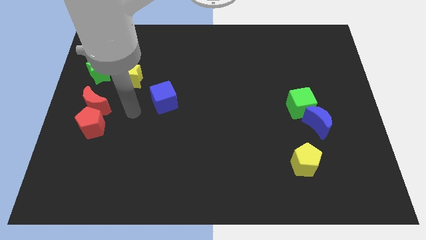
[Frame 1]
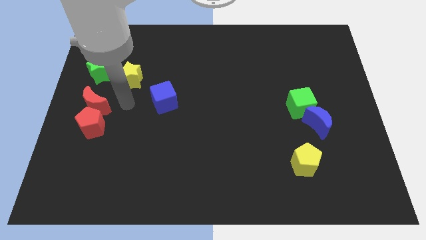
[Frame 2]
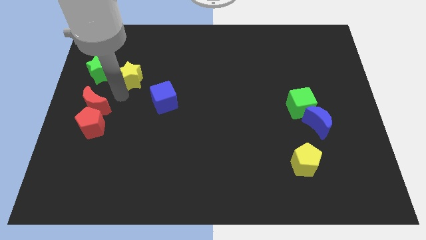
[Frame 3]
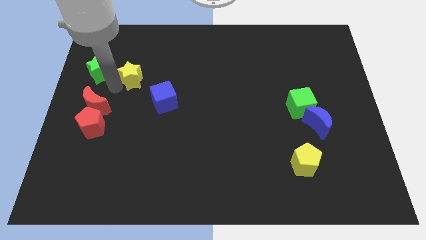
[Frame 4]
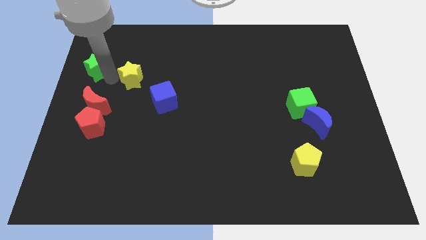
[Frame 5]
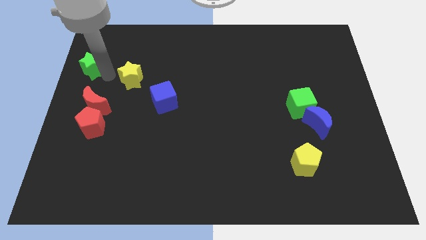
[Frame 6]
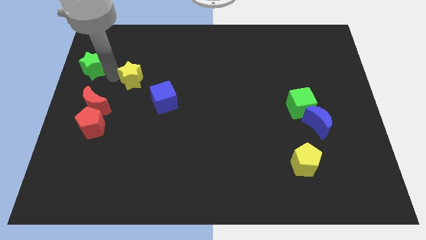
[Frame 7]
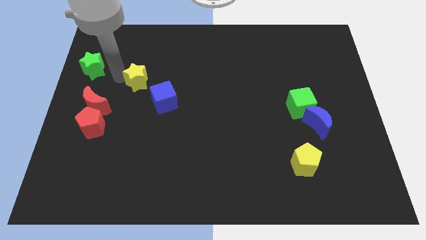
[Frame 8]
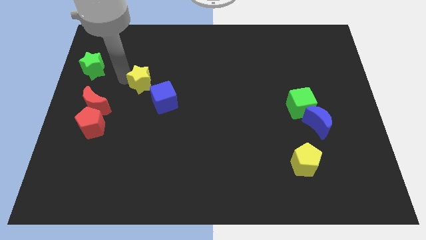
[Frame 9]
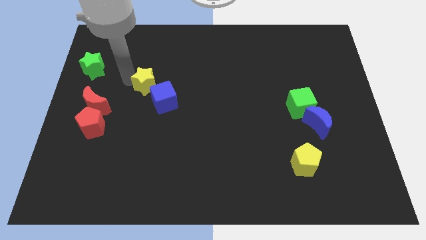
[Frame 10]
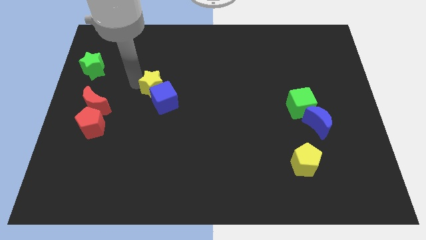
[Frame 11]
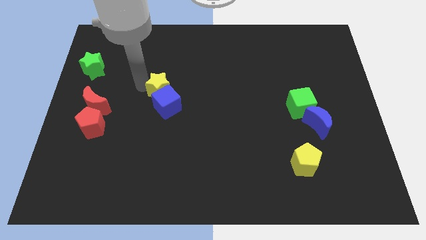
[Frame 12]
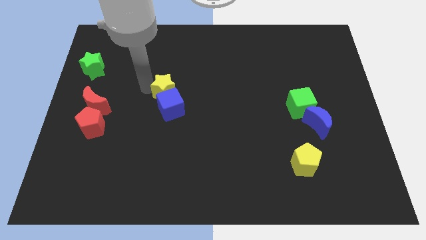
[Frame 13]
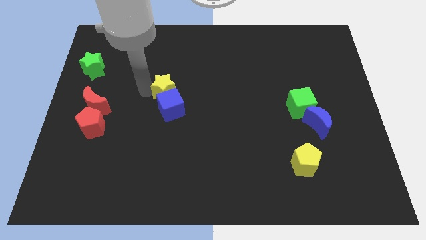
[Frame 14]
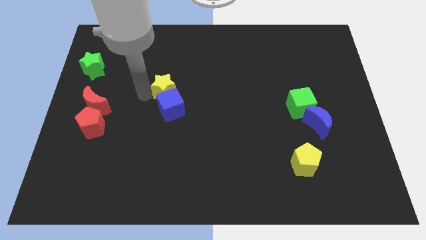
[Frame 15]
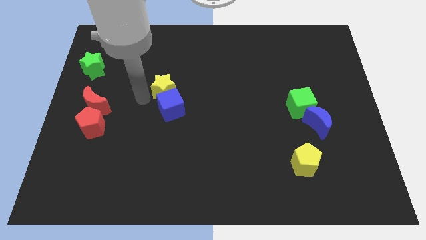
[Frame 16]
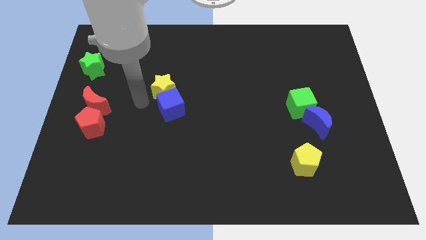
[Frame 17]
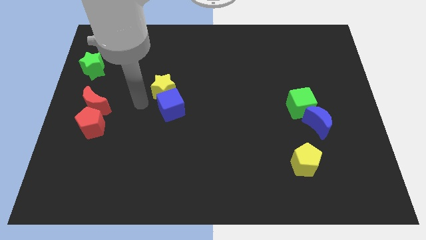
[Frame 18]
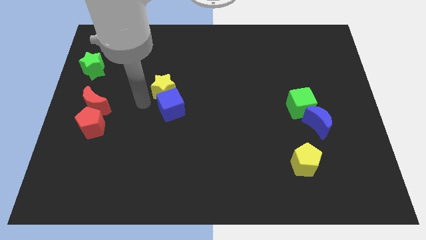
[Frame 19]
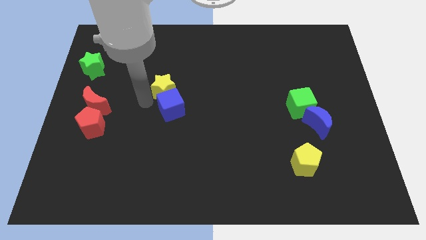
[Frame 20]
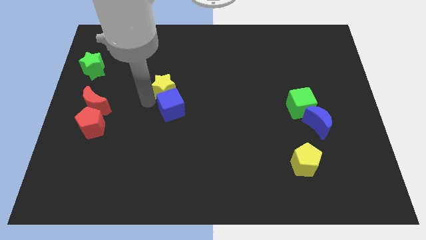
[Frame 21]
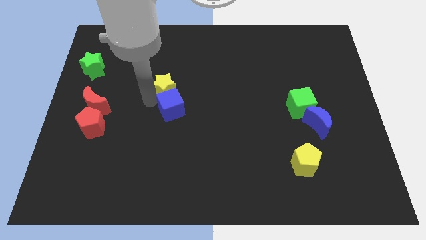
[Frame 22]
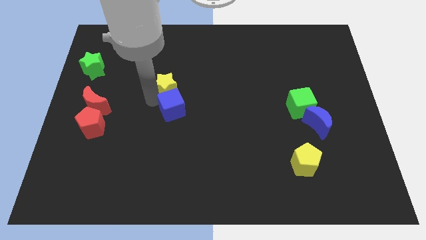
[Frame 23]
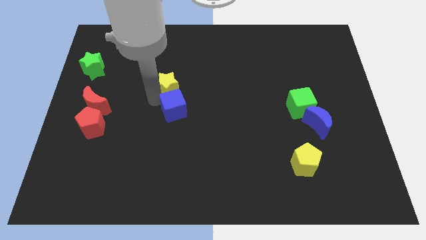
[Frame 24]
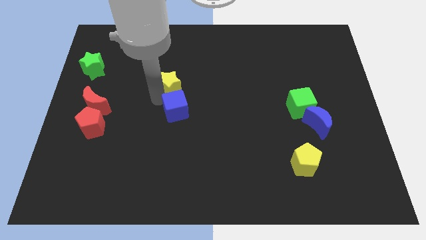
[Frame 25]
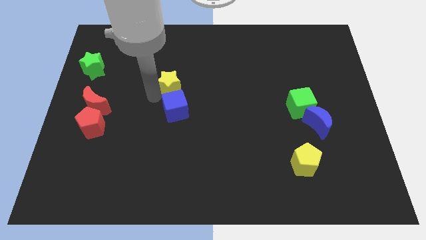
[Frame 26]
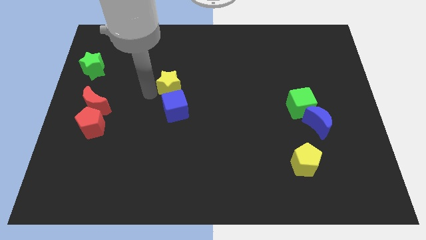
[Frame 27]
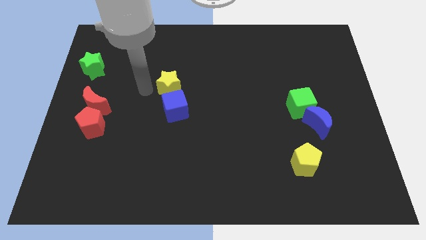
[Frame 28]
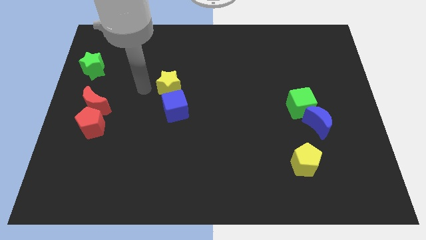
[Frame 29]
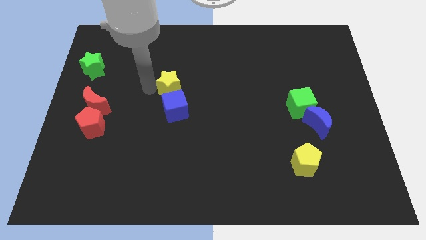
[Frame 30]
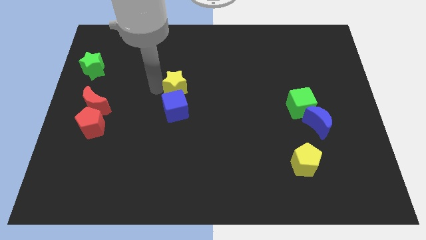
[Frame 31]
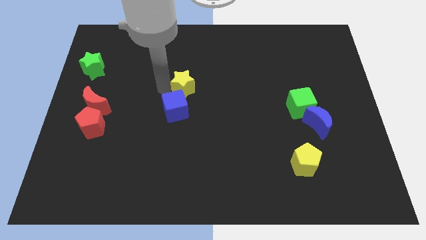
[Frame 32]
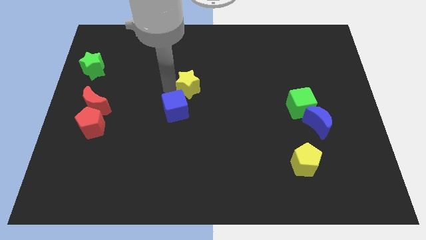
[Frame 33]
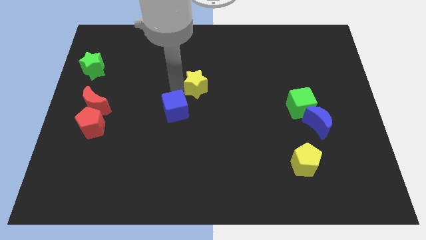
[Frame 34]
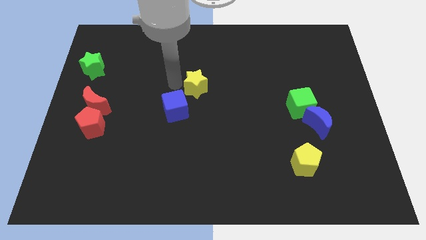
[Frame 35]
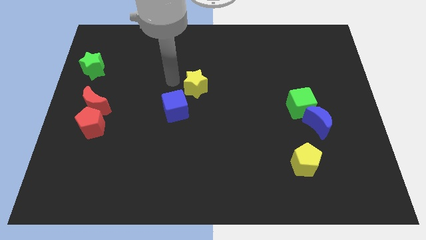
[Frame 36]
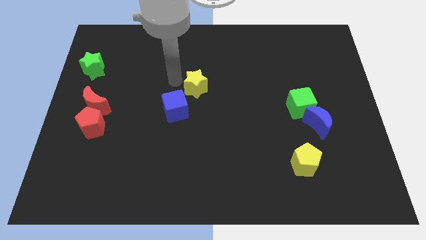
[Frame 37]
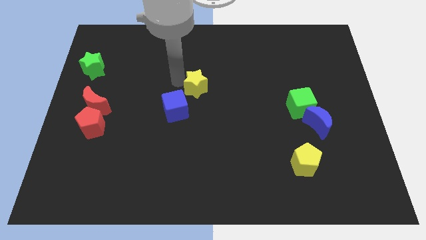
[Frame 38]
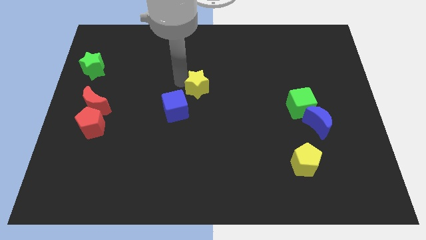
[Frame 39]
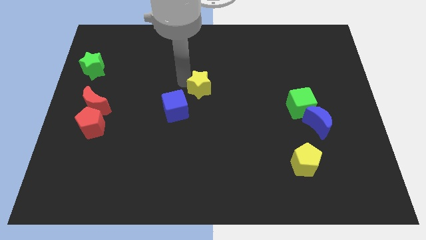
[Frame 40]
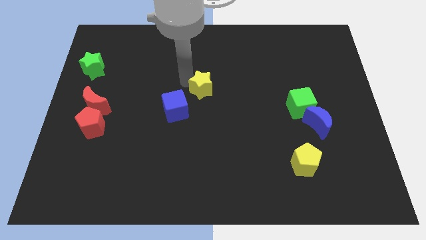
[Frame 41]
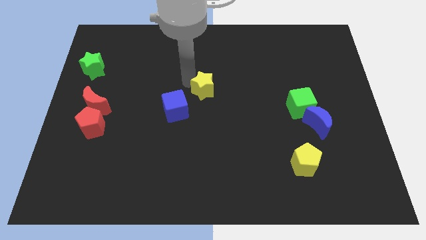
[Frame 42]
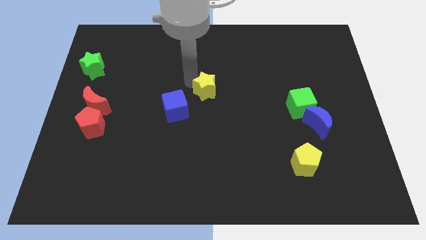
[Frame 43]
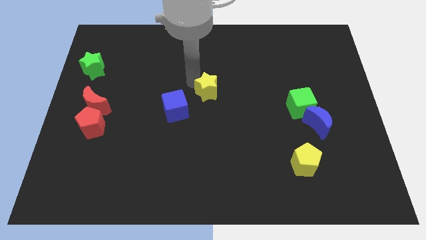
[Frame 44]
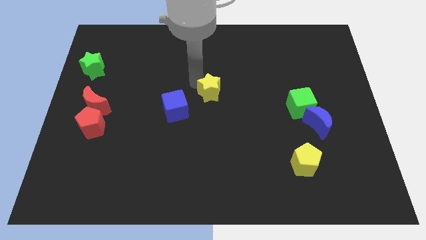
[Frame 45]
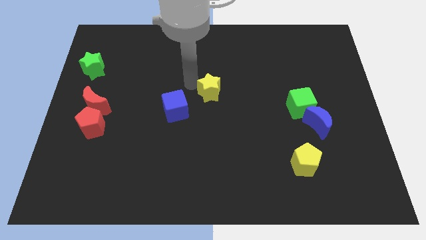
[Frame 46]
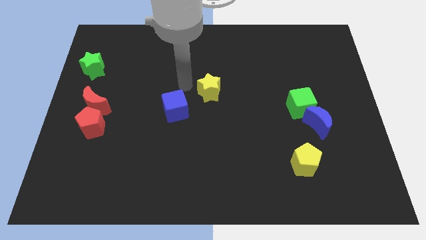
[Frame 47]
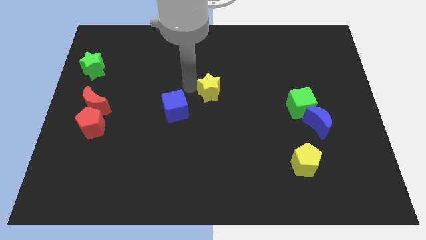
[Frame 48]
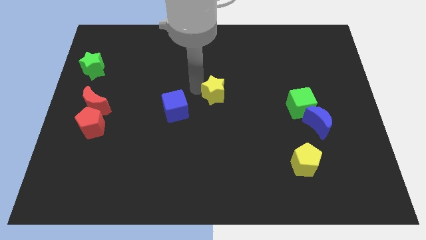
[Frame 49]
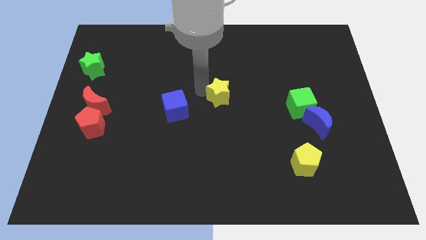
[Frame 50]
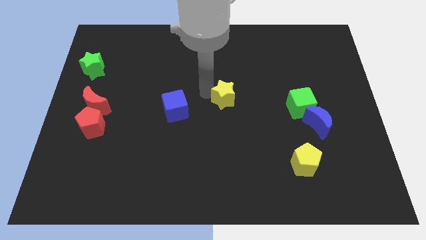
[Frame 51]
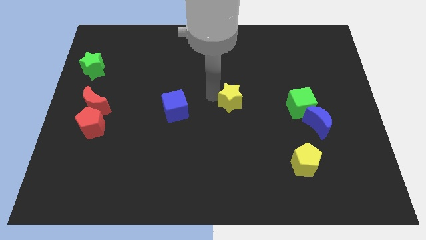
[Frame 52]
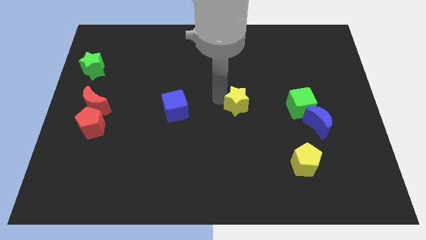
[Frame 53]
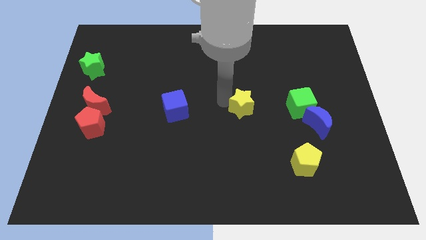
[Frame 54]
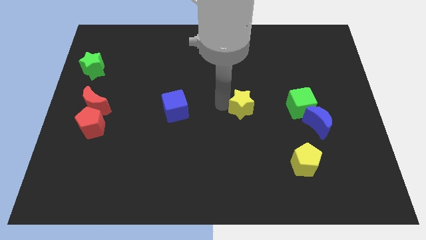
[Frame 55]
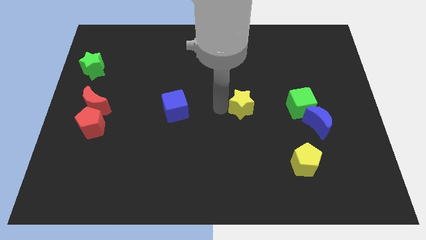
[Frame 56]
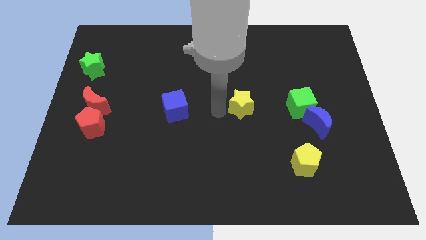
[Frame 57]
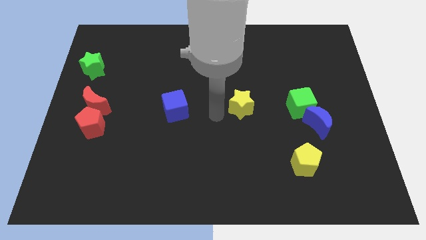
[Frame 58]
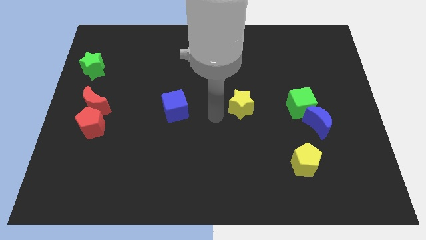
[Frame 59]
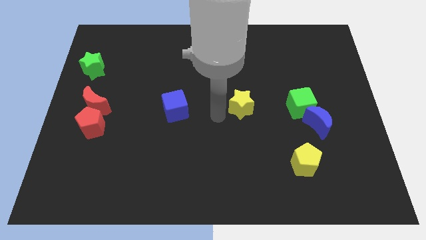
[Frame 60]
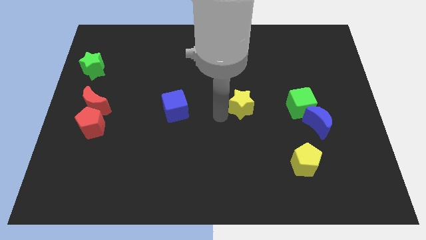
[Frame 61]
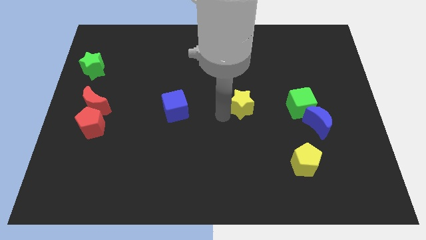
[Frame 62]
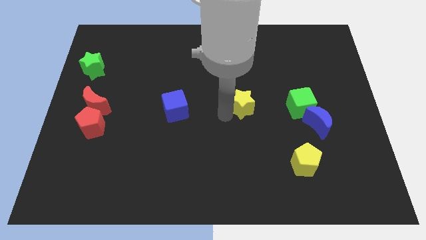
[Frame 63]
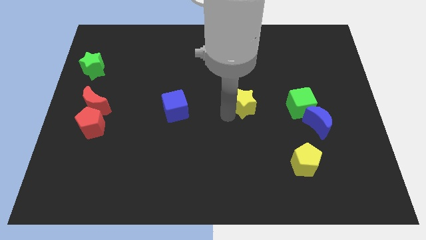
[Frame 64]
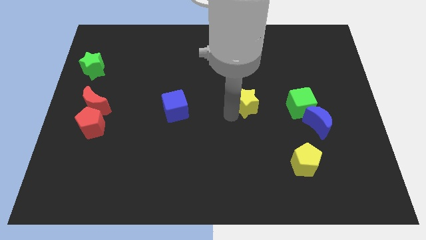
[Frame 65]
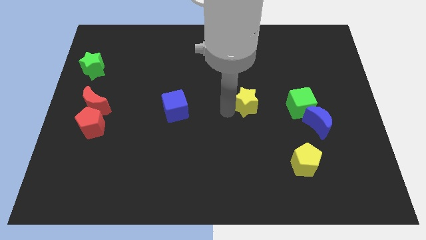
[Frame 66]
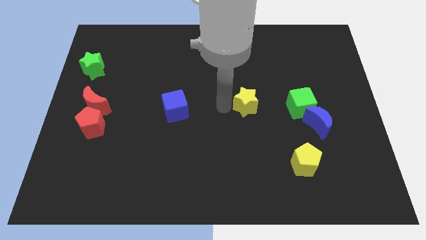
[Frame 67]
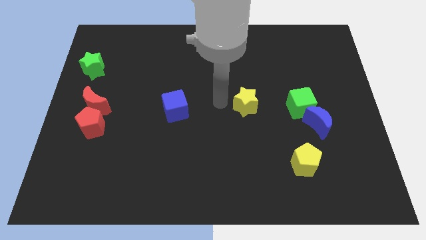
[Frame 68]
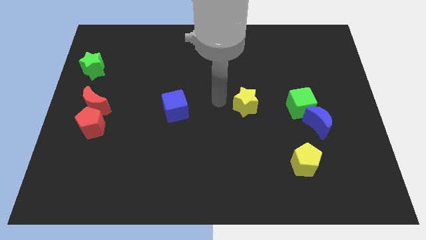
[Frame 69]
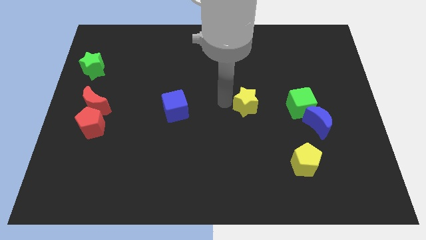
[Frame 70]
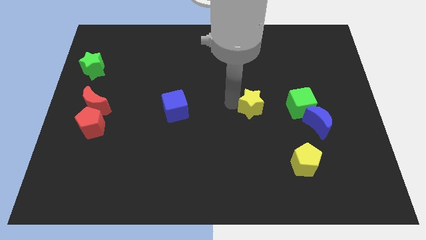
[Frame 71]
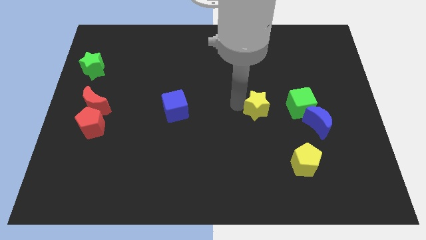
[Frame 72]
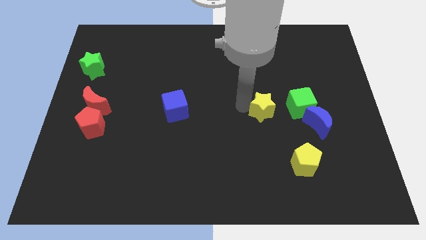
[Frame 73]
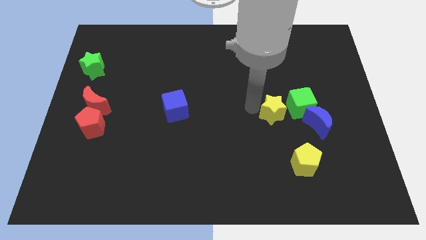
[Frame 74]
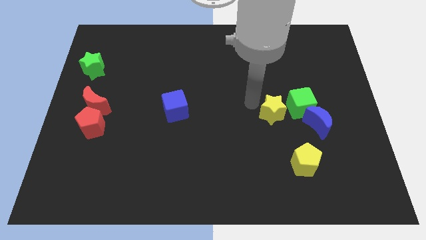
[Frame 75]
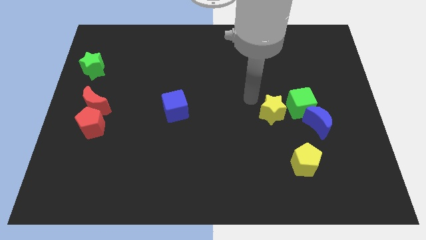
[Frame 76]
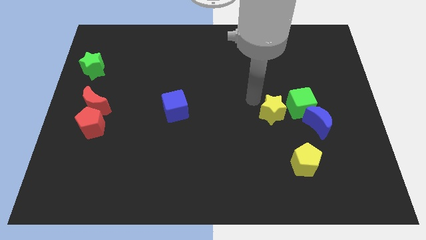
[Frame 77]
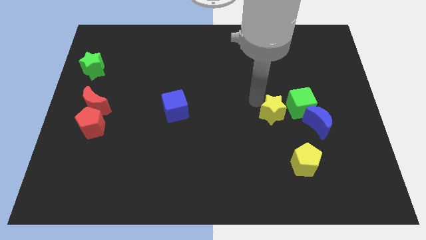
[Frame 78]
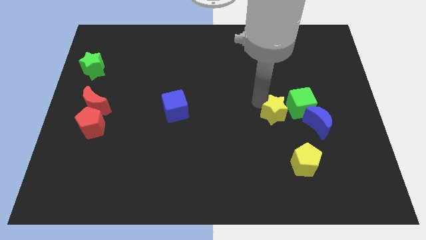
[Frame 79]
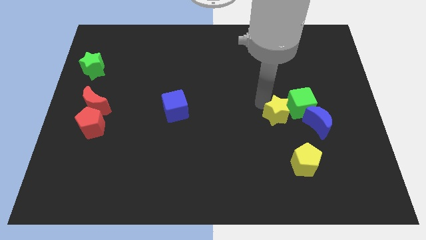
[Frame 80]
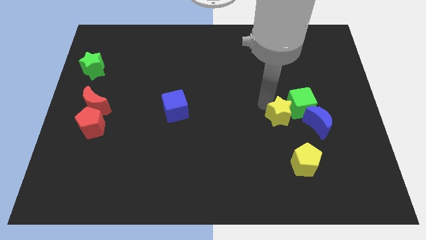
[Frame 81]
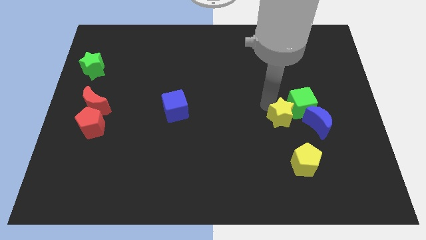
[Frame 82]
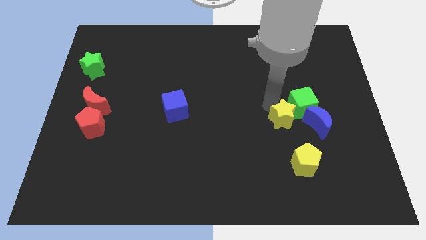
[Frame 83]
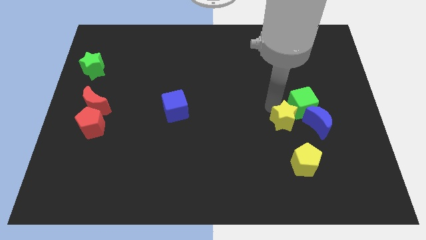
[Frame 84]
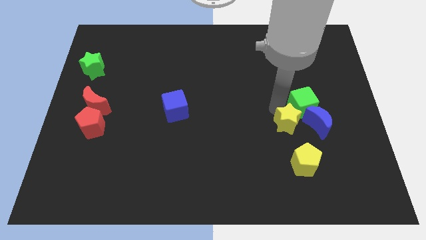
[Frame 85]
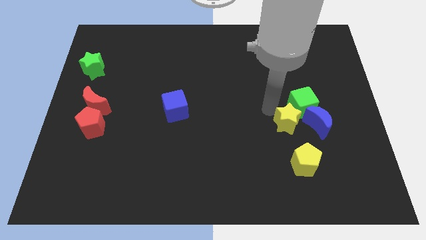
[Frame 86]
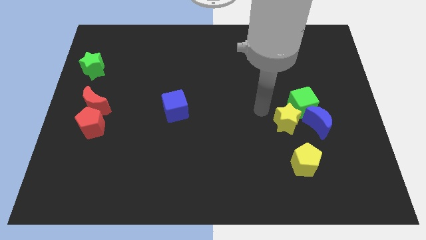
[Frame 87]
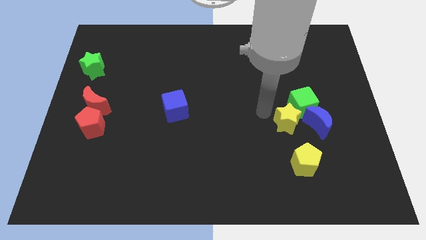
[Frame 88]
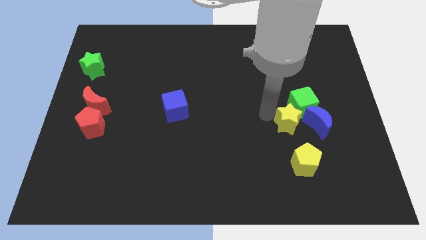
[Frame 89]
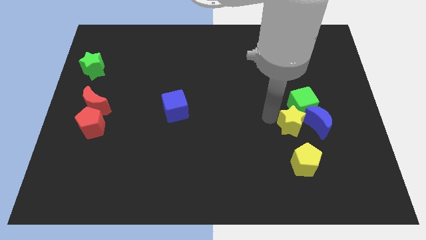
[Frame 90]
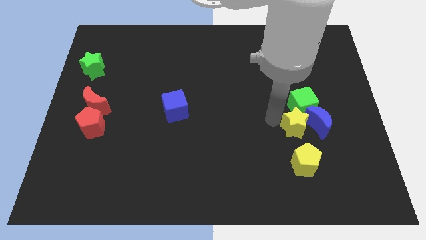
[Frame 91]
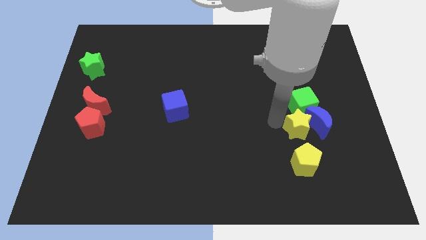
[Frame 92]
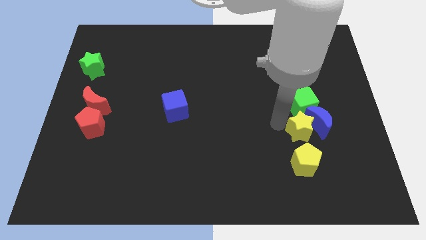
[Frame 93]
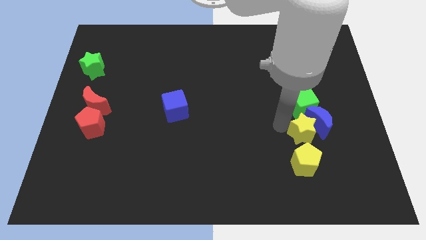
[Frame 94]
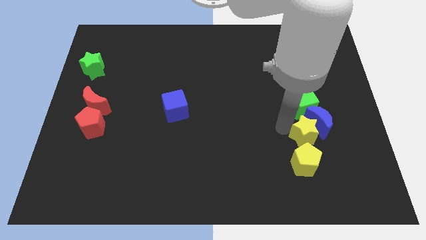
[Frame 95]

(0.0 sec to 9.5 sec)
push the yellow star to the top right side of the yellow pentagon
